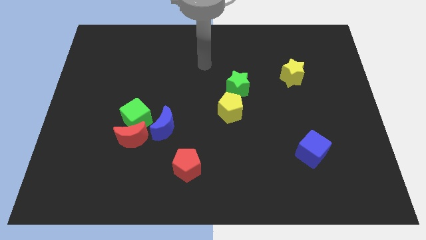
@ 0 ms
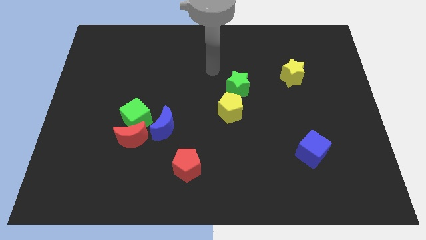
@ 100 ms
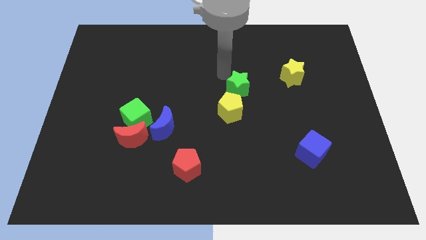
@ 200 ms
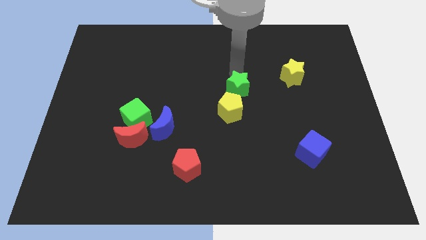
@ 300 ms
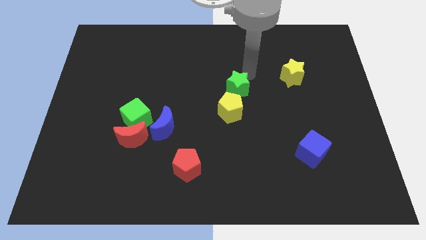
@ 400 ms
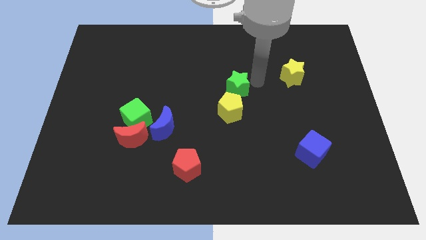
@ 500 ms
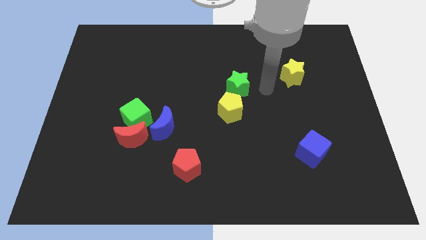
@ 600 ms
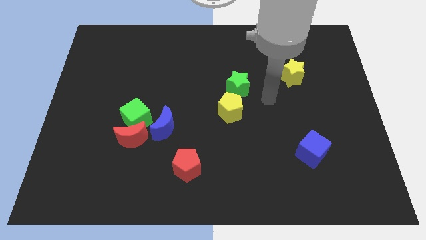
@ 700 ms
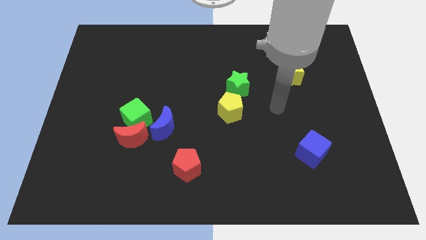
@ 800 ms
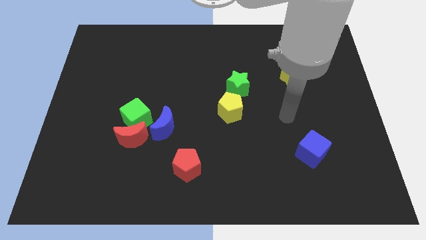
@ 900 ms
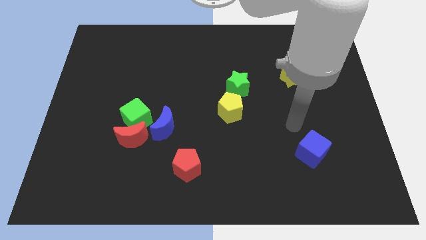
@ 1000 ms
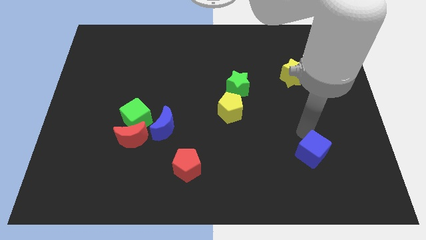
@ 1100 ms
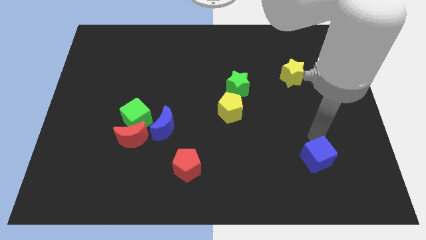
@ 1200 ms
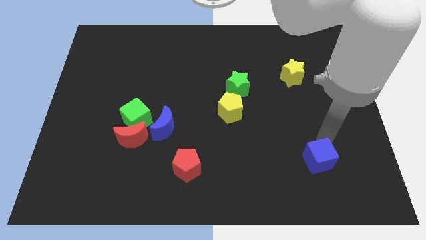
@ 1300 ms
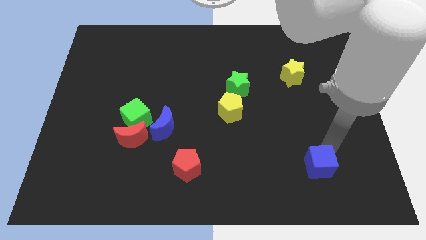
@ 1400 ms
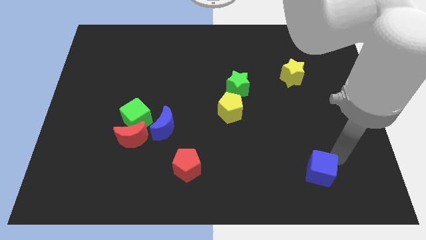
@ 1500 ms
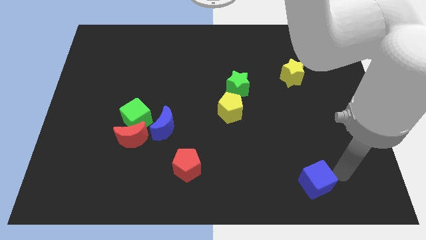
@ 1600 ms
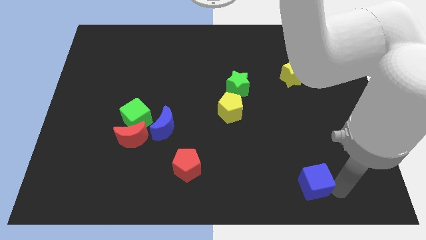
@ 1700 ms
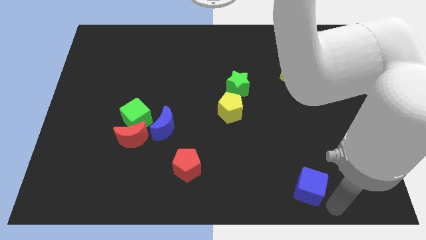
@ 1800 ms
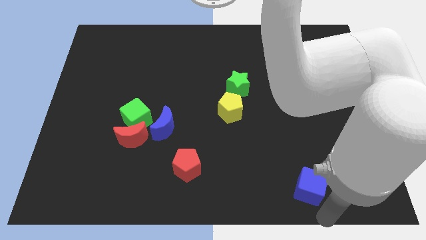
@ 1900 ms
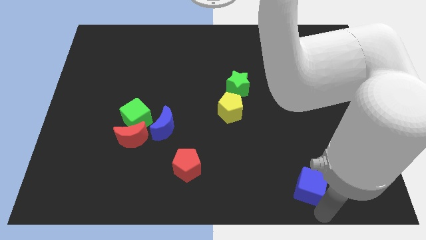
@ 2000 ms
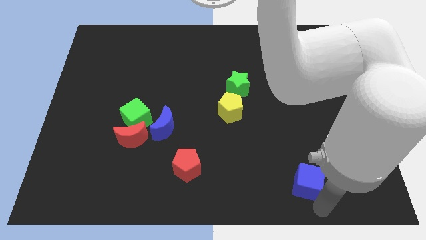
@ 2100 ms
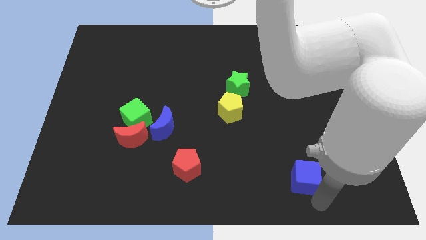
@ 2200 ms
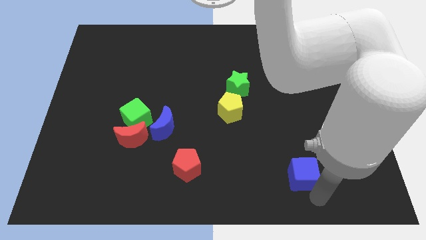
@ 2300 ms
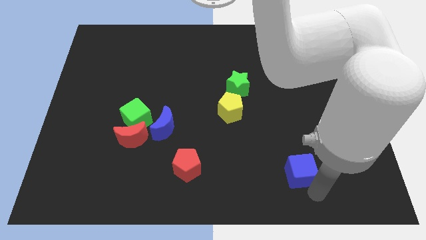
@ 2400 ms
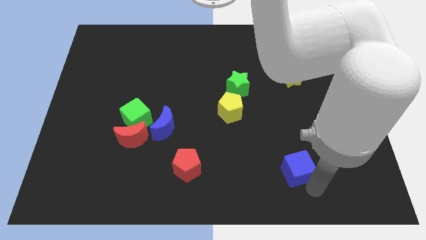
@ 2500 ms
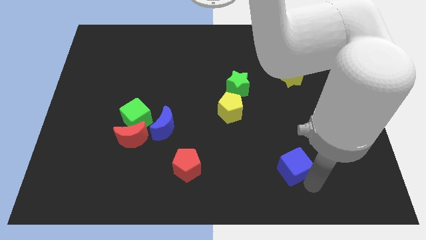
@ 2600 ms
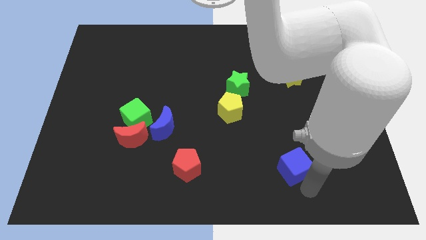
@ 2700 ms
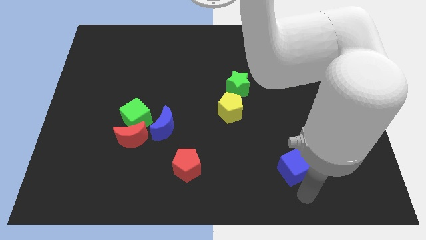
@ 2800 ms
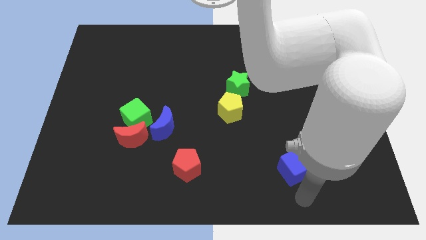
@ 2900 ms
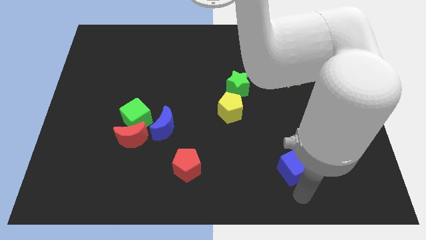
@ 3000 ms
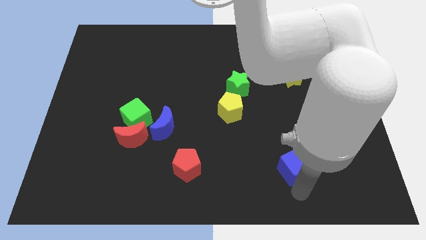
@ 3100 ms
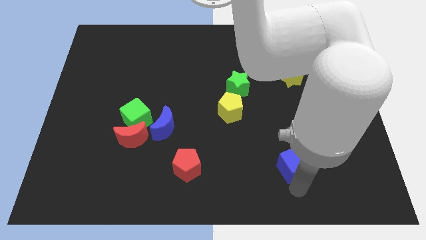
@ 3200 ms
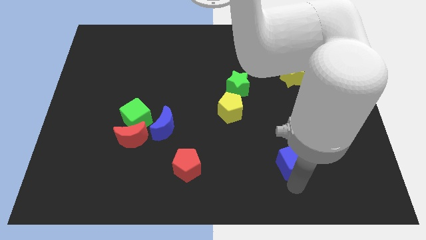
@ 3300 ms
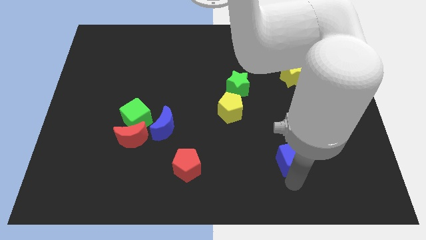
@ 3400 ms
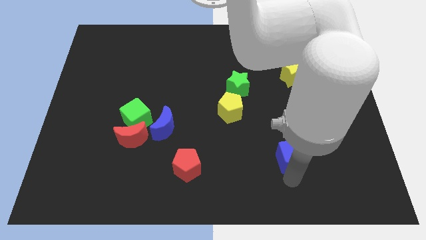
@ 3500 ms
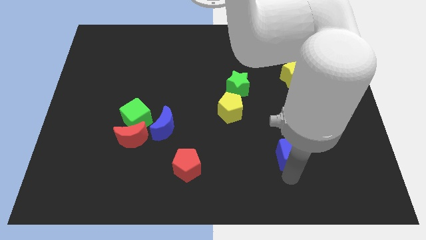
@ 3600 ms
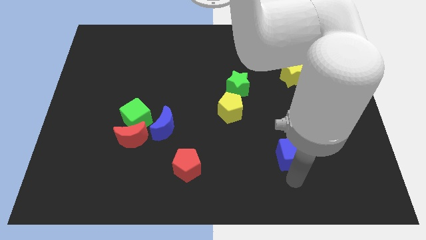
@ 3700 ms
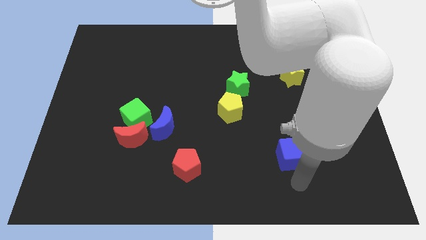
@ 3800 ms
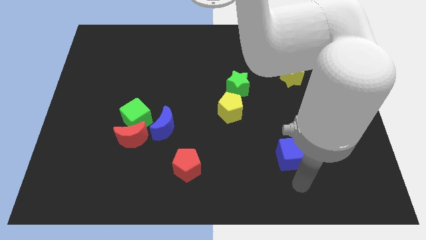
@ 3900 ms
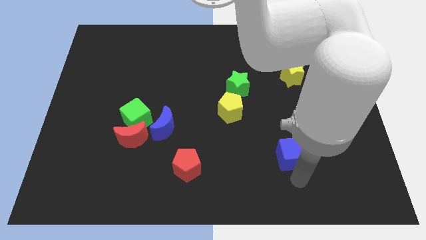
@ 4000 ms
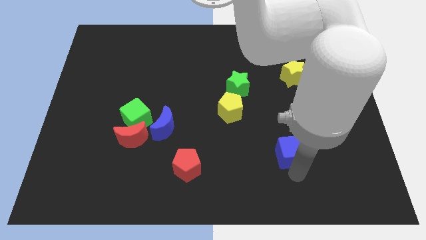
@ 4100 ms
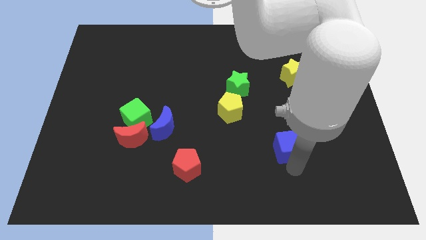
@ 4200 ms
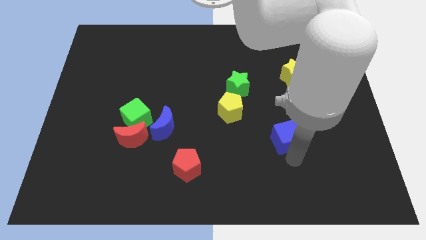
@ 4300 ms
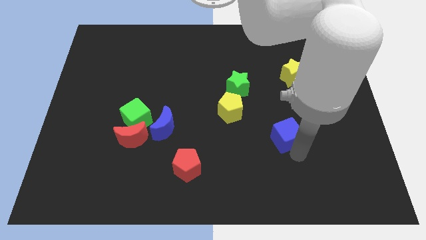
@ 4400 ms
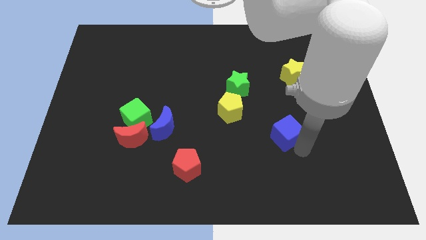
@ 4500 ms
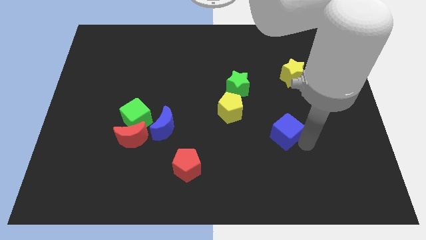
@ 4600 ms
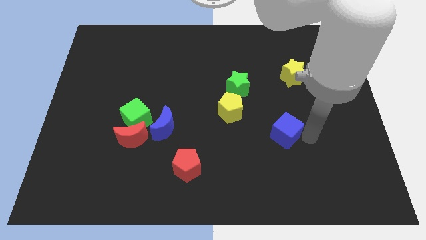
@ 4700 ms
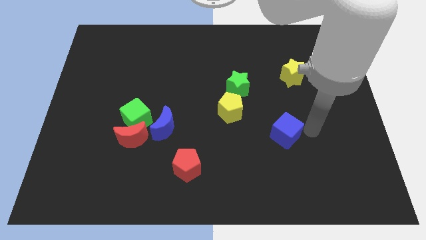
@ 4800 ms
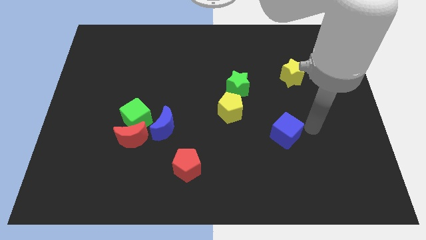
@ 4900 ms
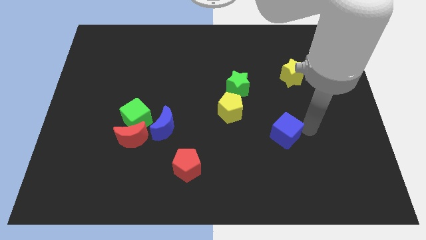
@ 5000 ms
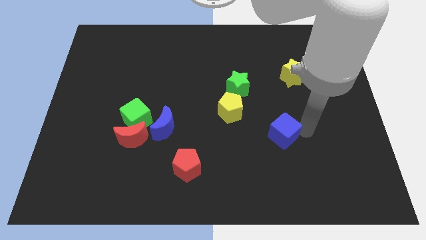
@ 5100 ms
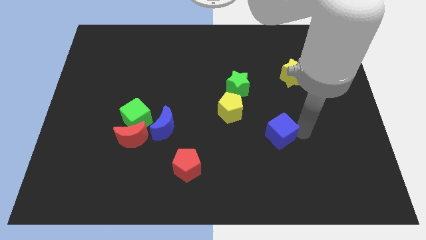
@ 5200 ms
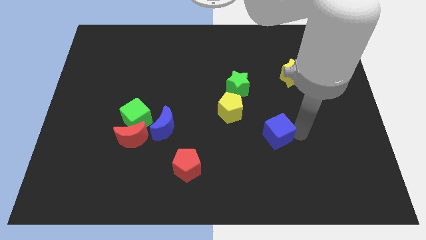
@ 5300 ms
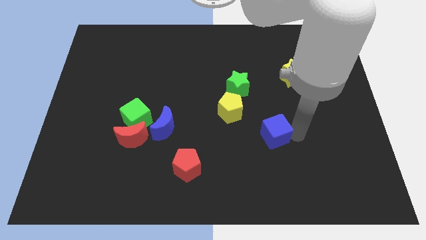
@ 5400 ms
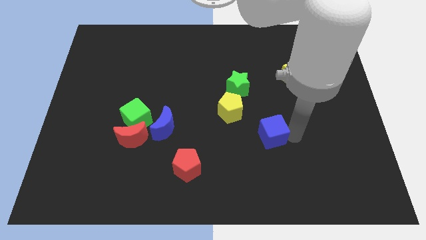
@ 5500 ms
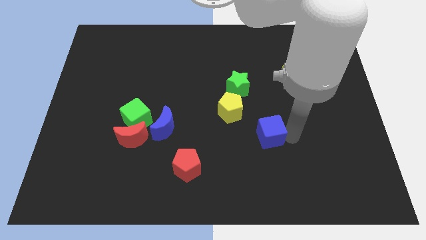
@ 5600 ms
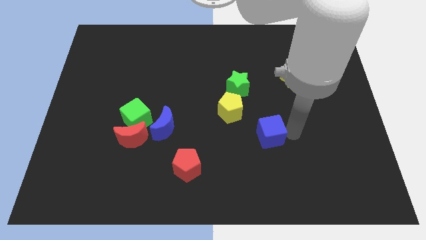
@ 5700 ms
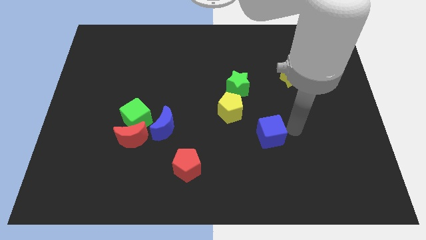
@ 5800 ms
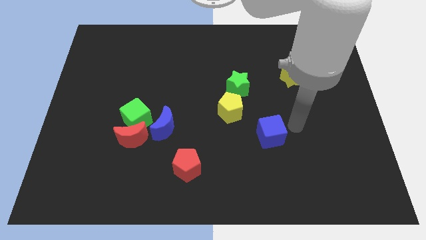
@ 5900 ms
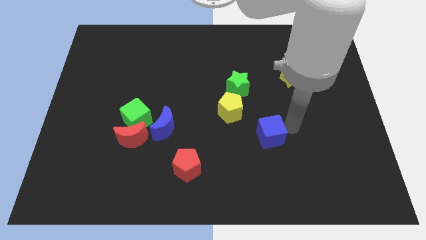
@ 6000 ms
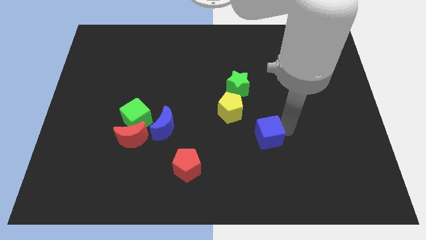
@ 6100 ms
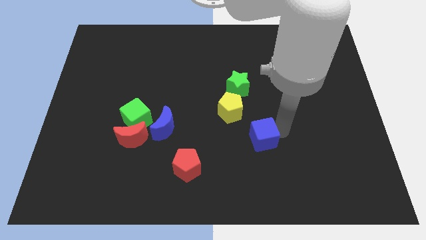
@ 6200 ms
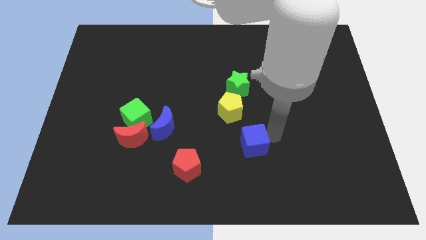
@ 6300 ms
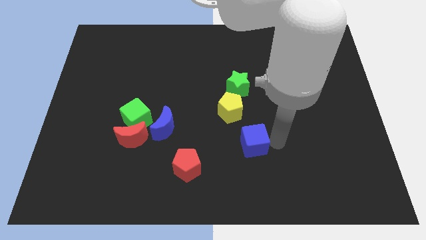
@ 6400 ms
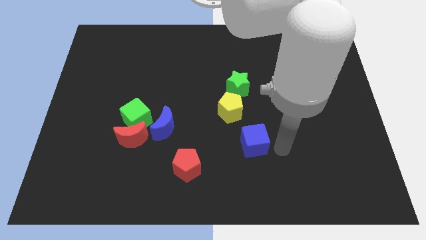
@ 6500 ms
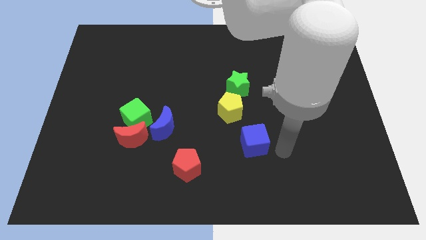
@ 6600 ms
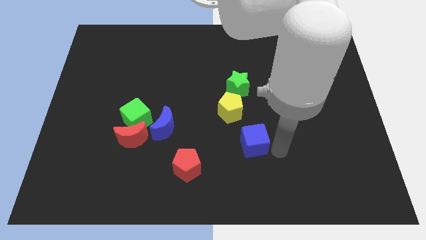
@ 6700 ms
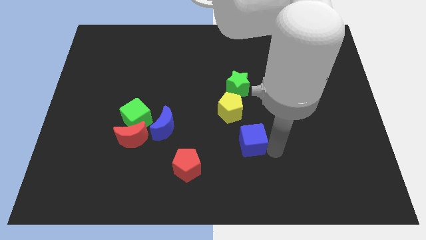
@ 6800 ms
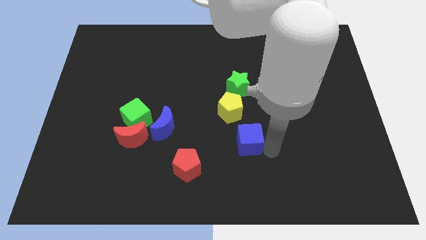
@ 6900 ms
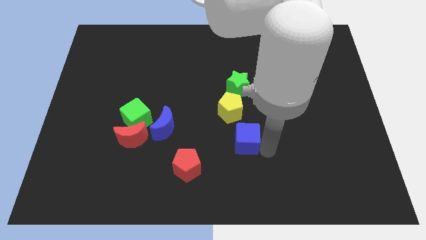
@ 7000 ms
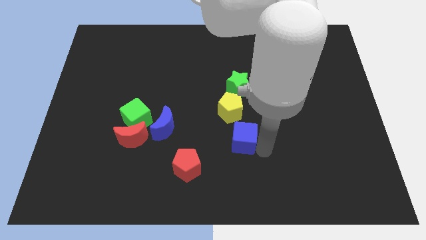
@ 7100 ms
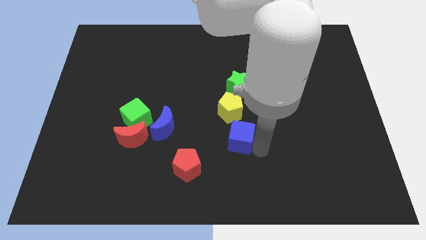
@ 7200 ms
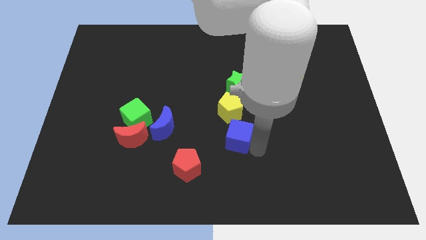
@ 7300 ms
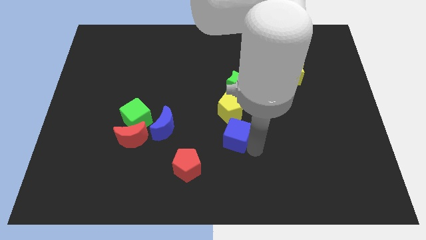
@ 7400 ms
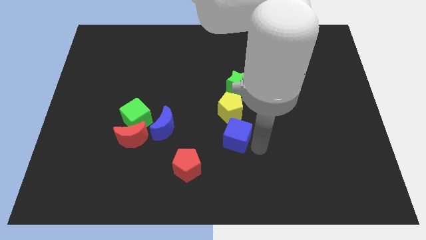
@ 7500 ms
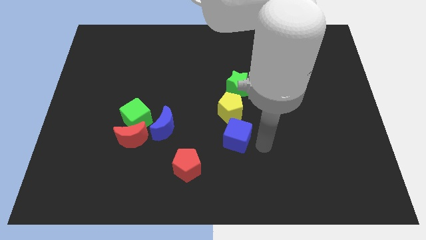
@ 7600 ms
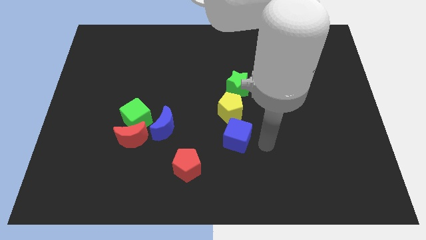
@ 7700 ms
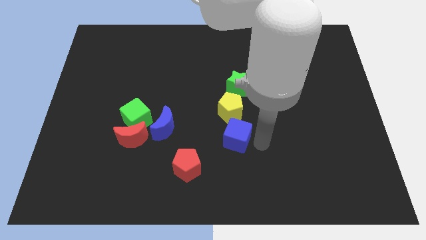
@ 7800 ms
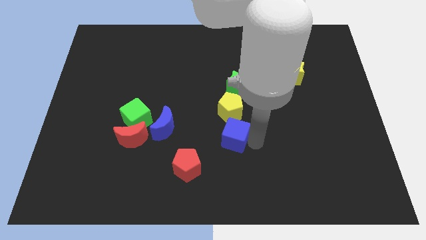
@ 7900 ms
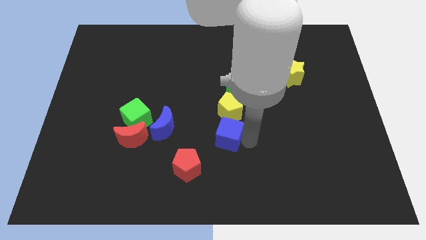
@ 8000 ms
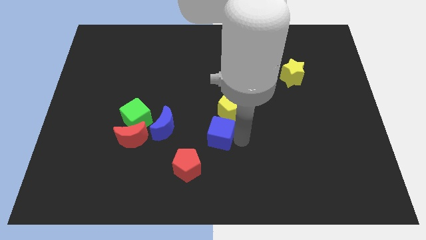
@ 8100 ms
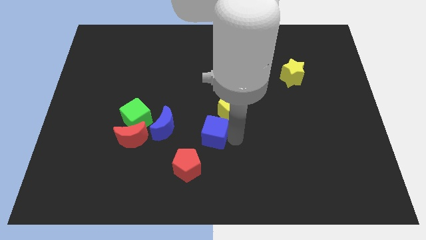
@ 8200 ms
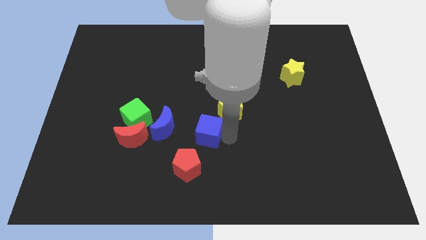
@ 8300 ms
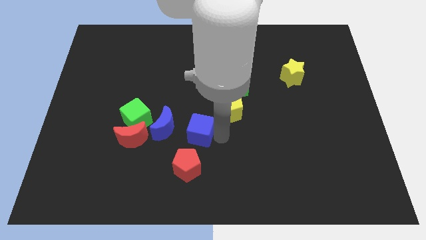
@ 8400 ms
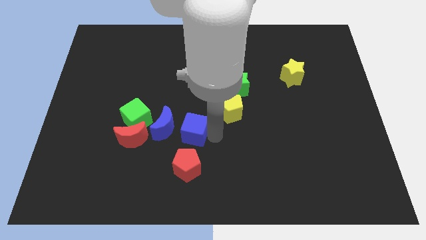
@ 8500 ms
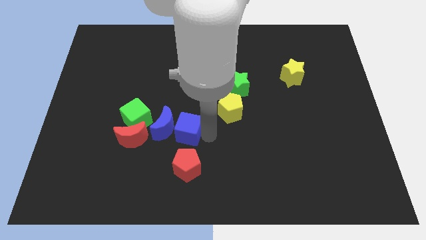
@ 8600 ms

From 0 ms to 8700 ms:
push the blue cube next to the blue moon
